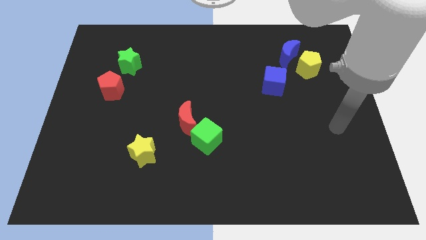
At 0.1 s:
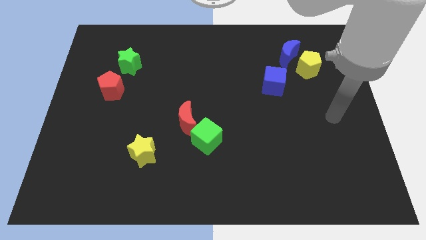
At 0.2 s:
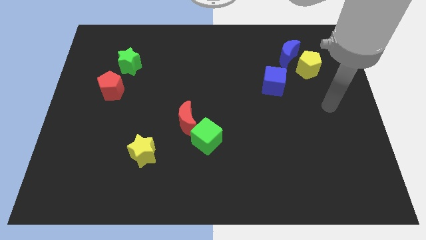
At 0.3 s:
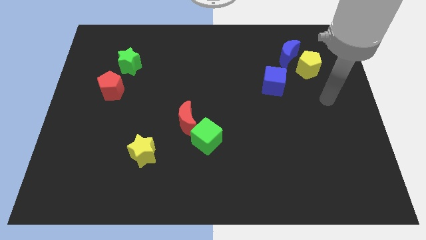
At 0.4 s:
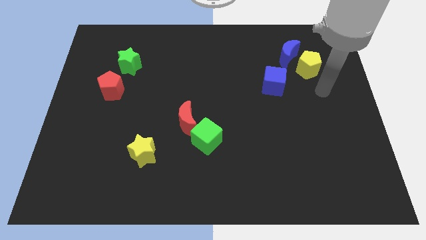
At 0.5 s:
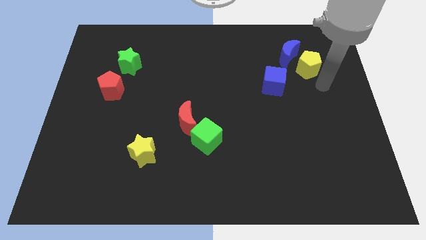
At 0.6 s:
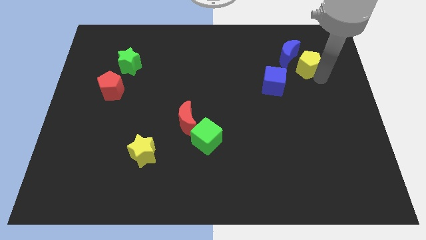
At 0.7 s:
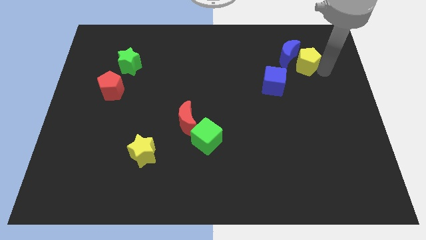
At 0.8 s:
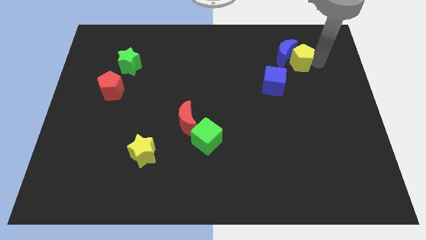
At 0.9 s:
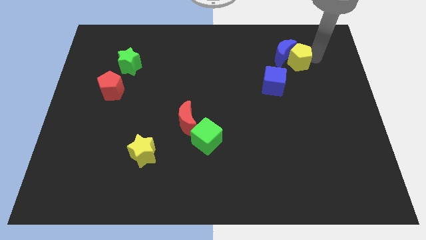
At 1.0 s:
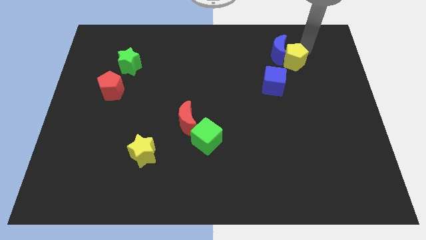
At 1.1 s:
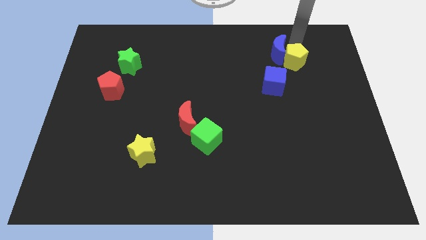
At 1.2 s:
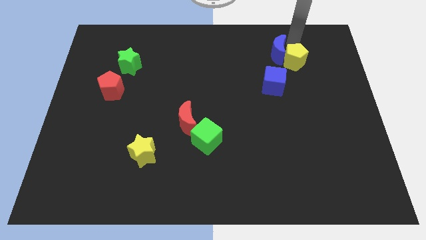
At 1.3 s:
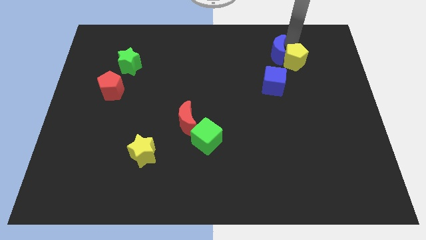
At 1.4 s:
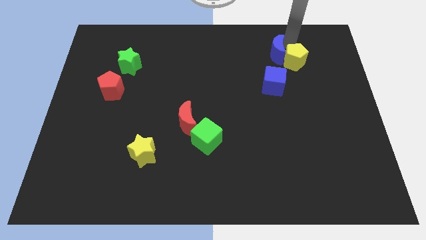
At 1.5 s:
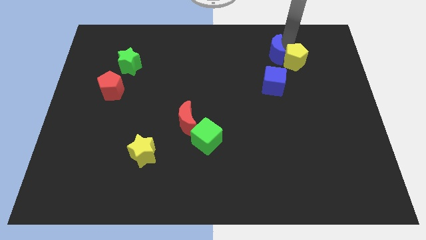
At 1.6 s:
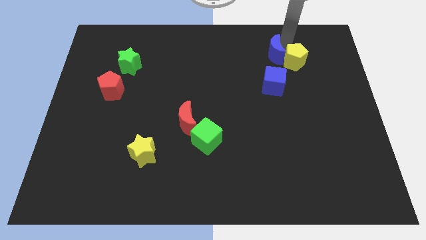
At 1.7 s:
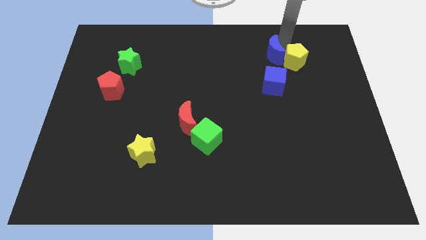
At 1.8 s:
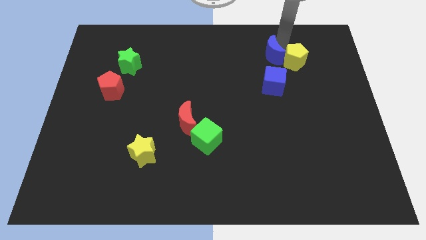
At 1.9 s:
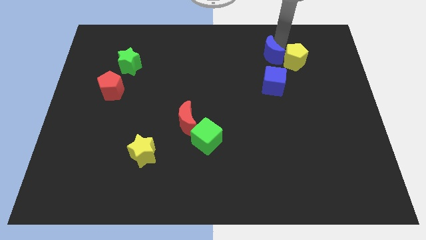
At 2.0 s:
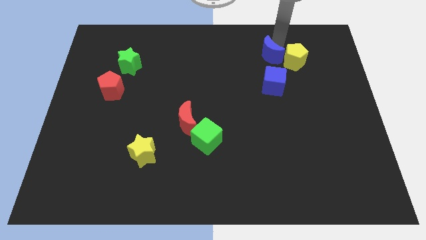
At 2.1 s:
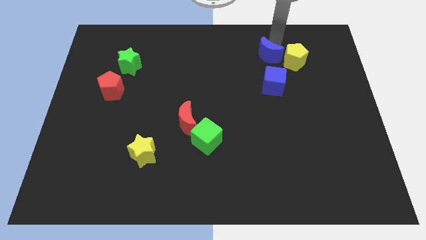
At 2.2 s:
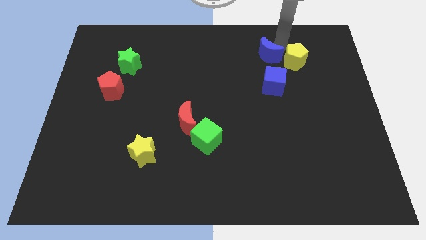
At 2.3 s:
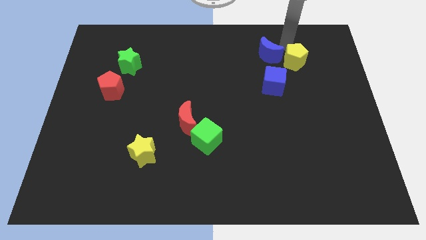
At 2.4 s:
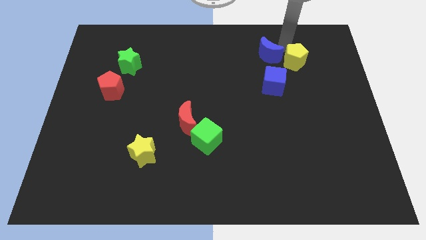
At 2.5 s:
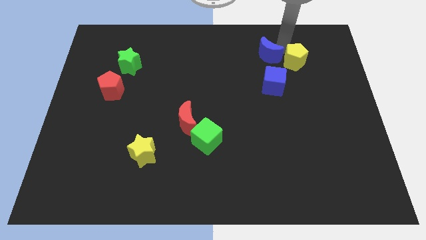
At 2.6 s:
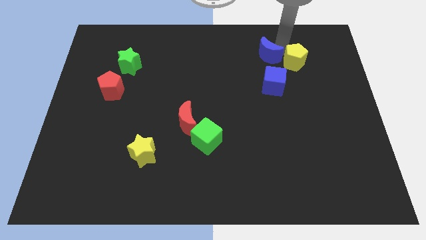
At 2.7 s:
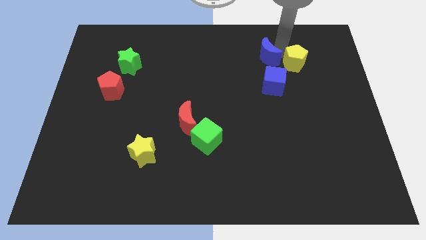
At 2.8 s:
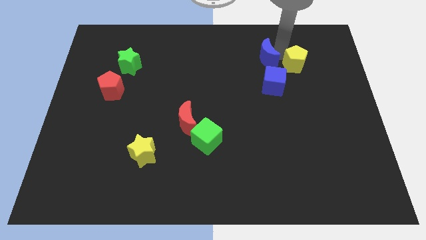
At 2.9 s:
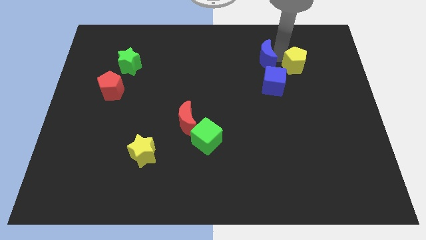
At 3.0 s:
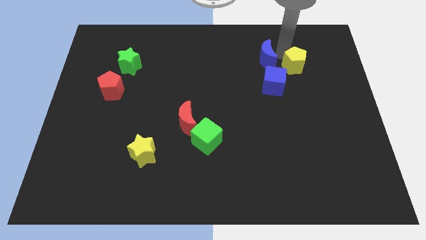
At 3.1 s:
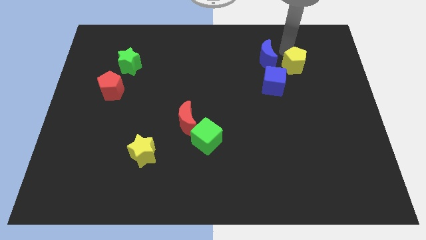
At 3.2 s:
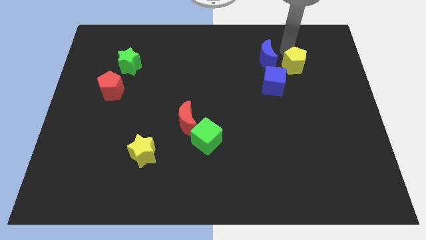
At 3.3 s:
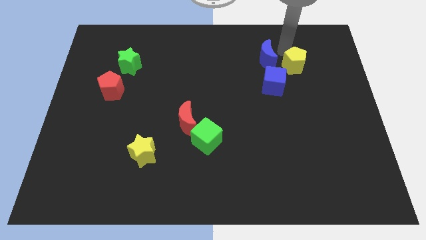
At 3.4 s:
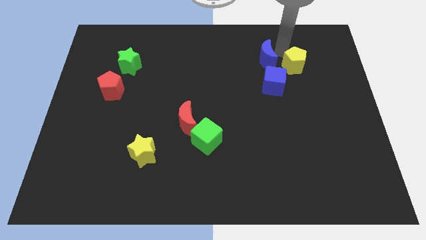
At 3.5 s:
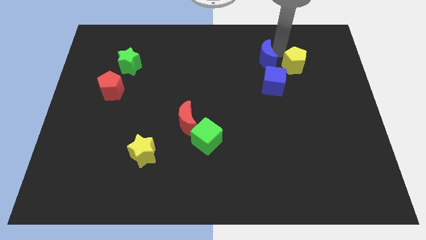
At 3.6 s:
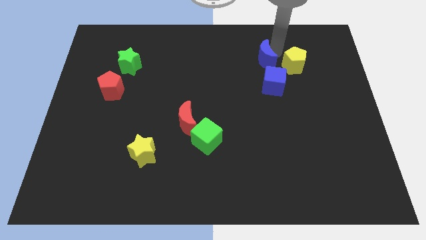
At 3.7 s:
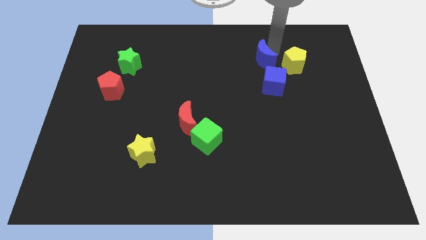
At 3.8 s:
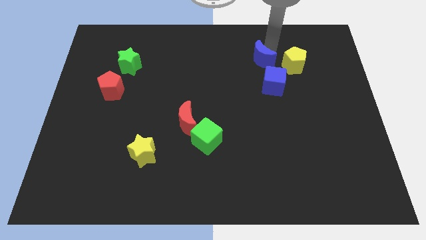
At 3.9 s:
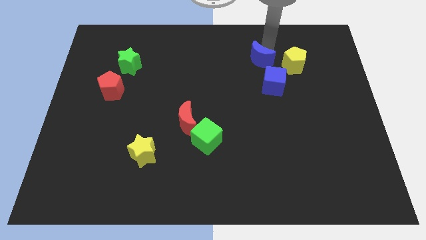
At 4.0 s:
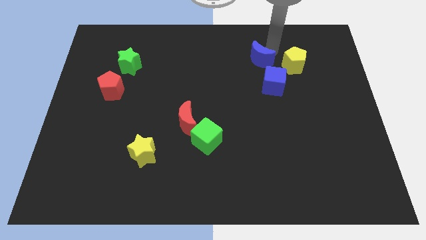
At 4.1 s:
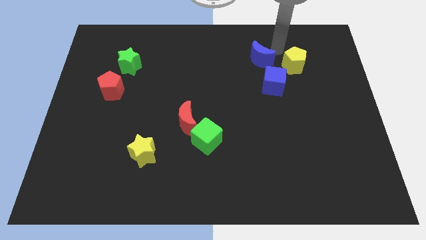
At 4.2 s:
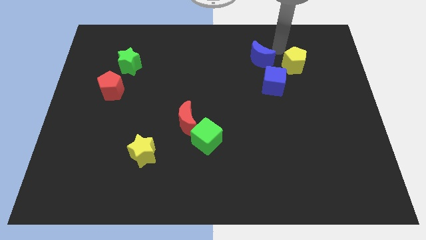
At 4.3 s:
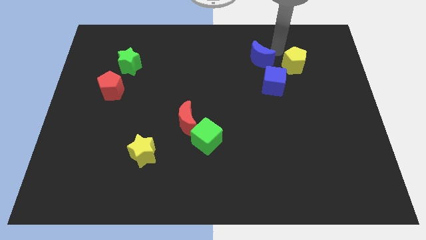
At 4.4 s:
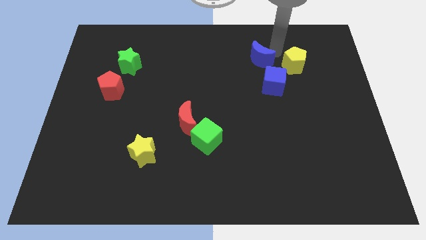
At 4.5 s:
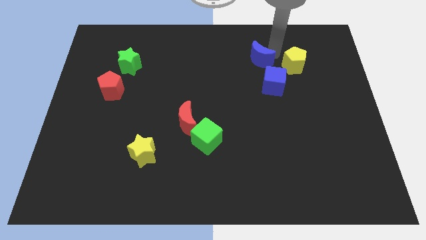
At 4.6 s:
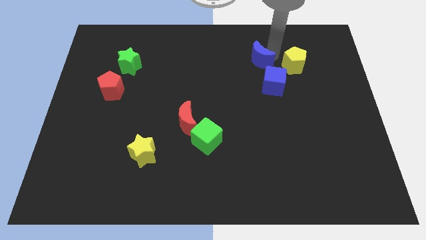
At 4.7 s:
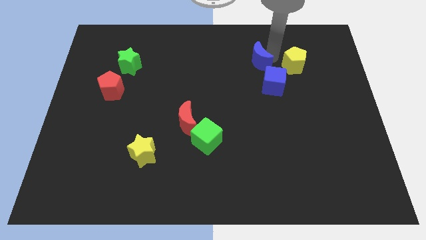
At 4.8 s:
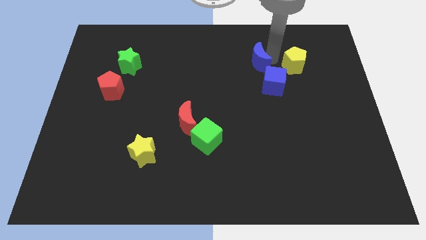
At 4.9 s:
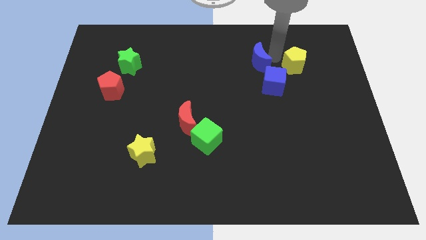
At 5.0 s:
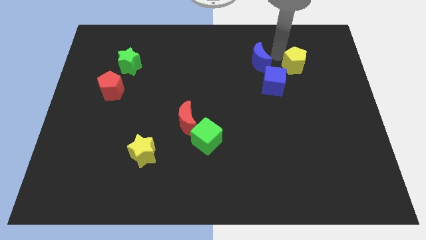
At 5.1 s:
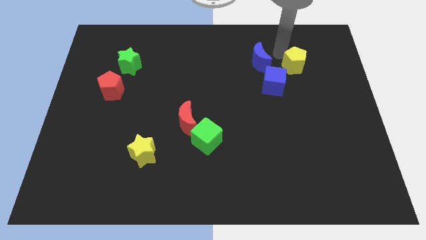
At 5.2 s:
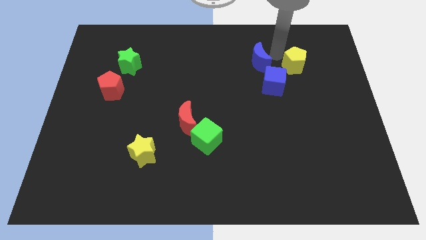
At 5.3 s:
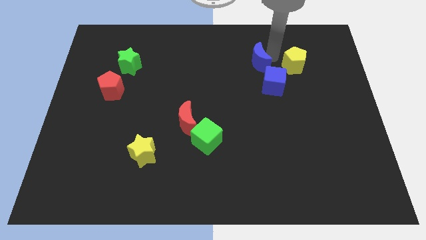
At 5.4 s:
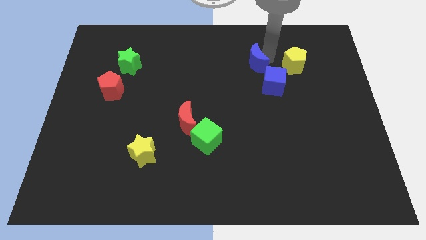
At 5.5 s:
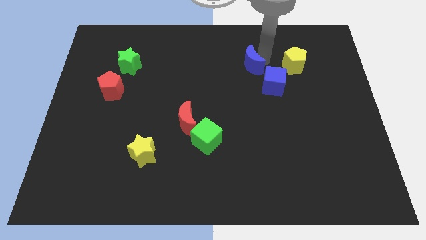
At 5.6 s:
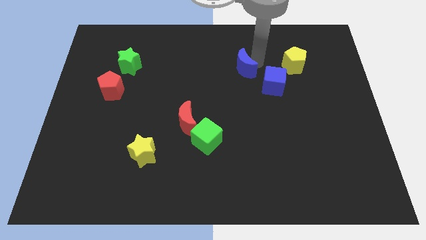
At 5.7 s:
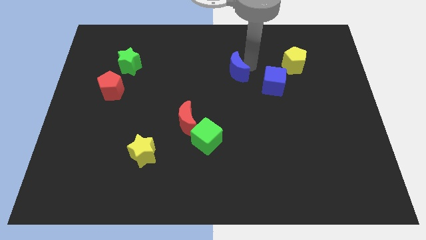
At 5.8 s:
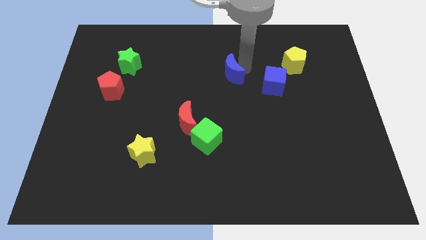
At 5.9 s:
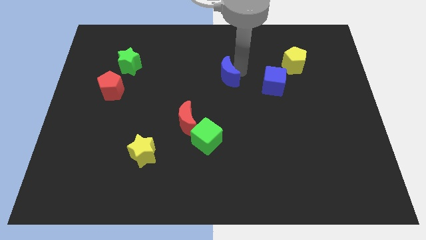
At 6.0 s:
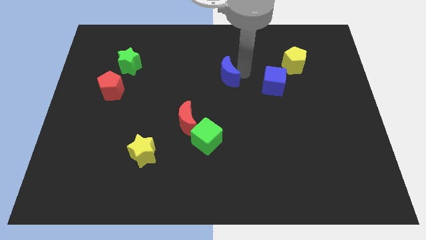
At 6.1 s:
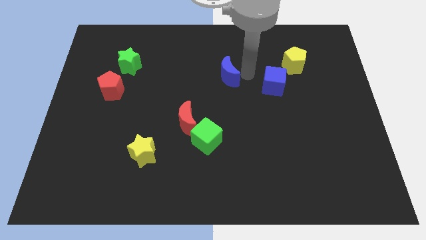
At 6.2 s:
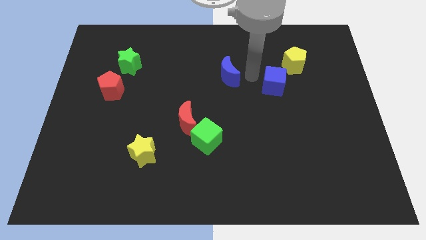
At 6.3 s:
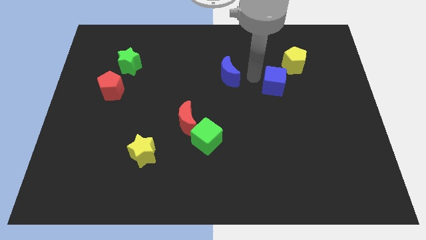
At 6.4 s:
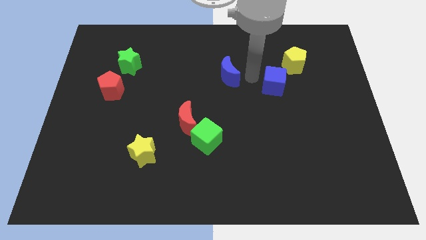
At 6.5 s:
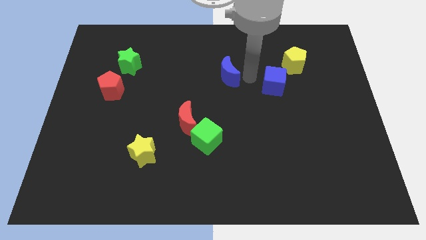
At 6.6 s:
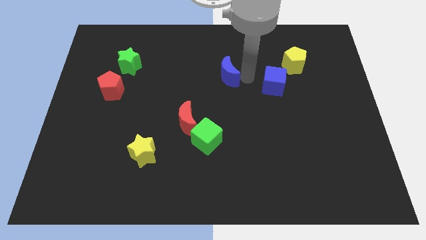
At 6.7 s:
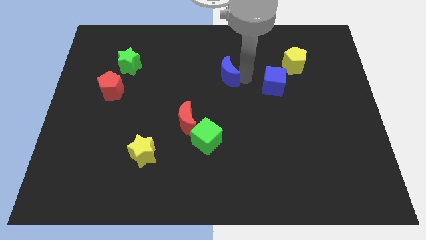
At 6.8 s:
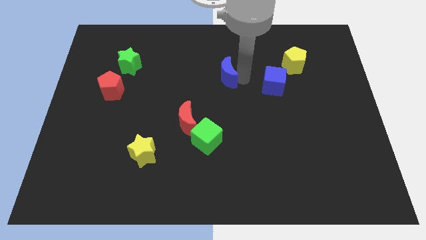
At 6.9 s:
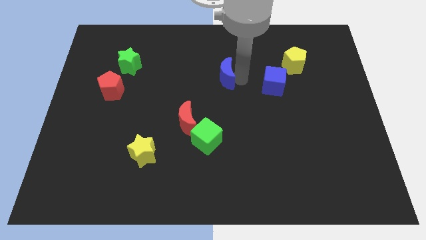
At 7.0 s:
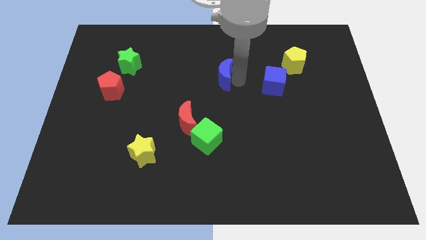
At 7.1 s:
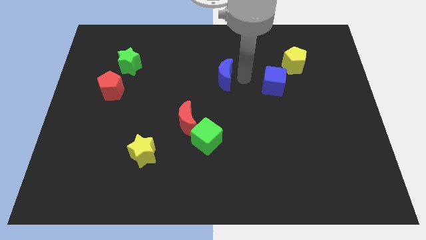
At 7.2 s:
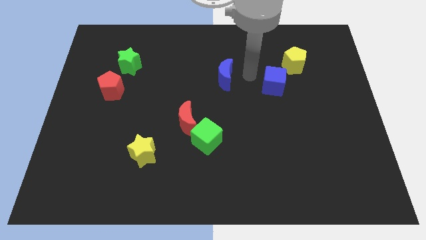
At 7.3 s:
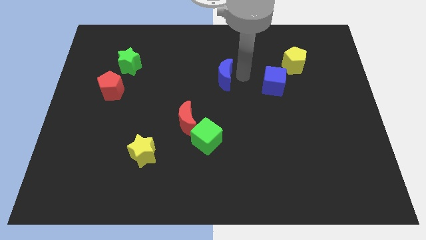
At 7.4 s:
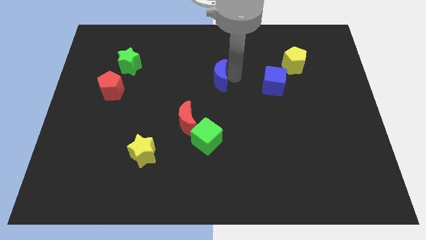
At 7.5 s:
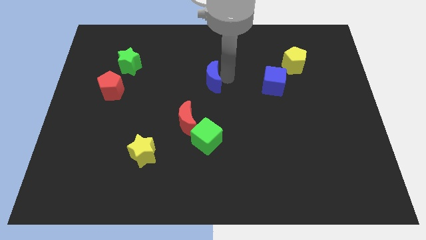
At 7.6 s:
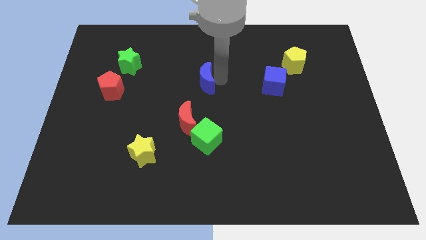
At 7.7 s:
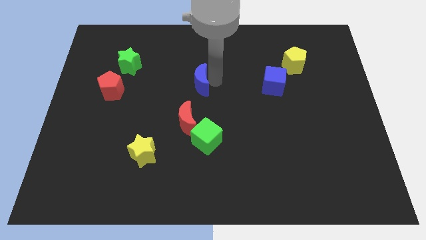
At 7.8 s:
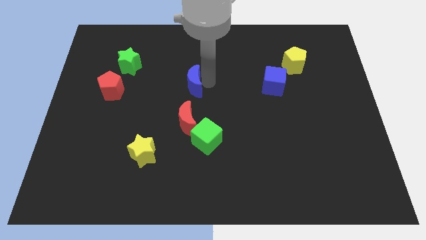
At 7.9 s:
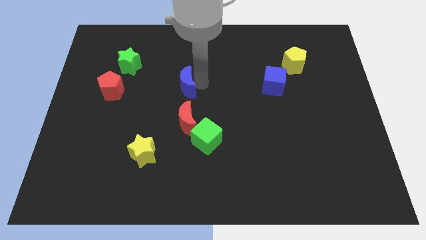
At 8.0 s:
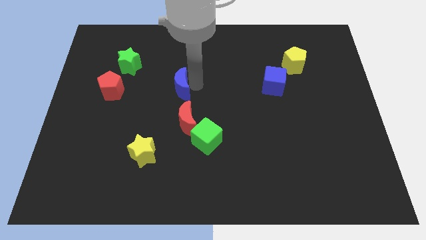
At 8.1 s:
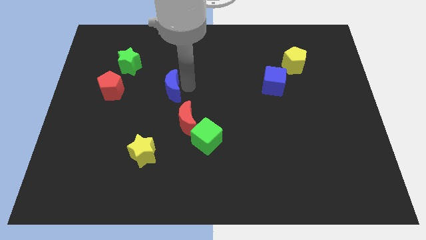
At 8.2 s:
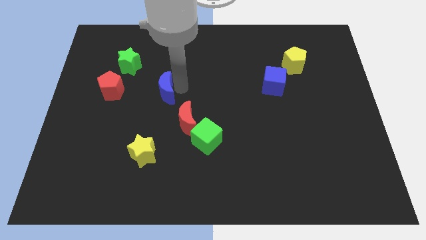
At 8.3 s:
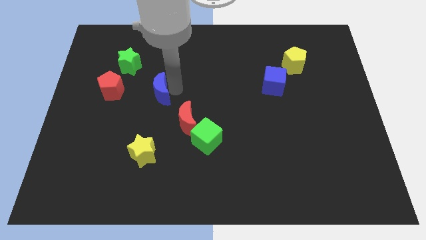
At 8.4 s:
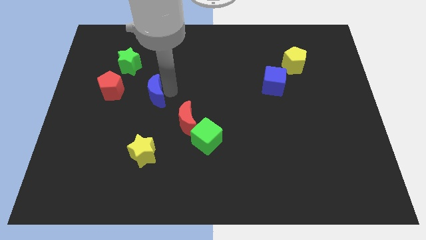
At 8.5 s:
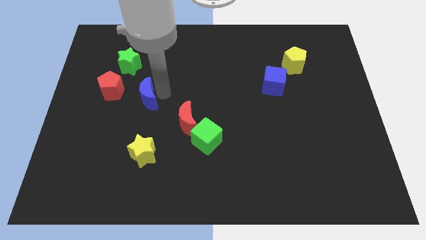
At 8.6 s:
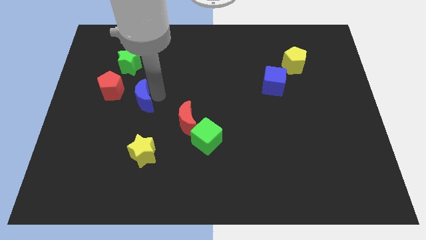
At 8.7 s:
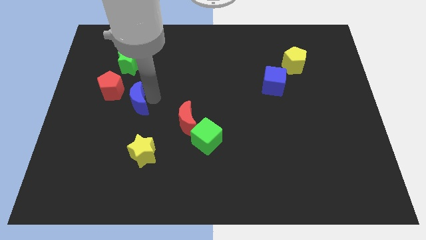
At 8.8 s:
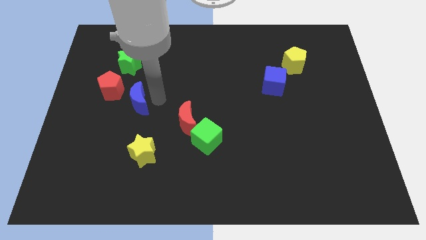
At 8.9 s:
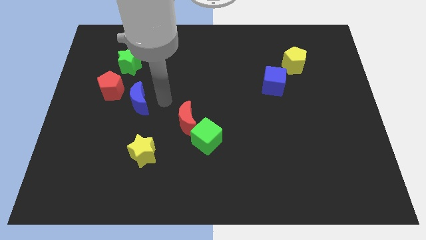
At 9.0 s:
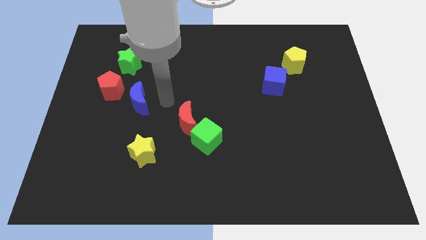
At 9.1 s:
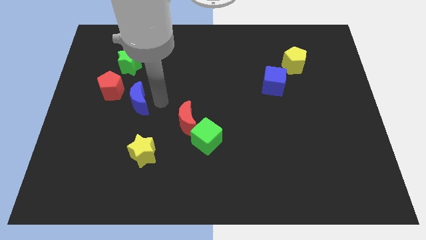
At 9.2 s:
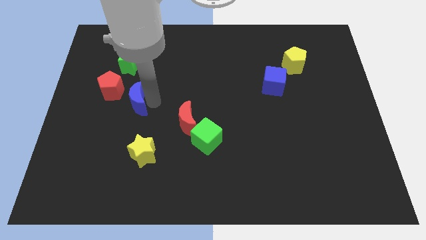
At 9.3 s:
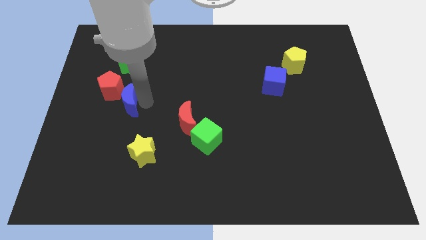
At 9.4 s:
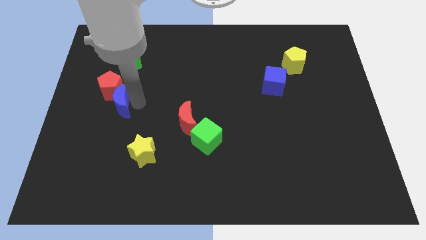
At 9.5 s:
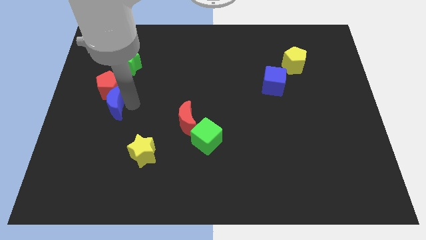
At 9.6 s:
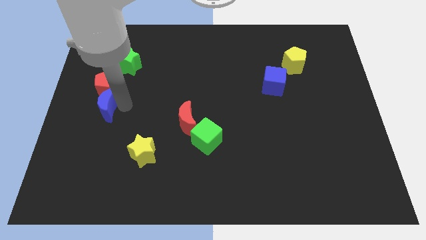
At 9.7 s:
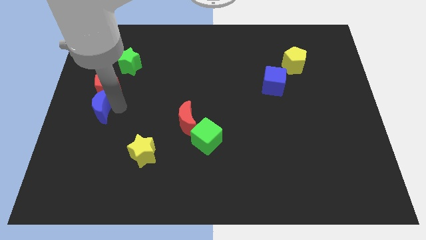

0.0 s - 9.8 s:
push the blue moon to the left side of the board
